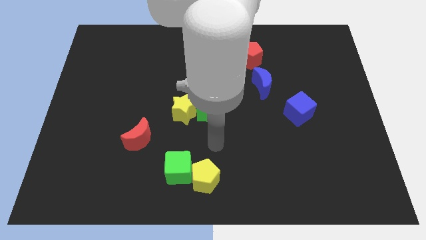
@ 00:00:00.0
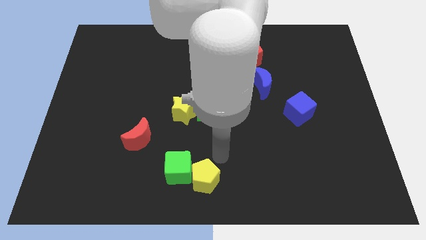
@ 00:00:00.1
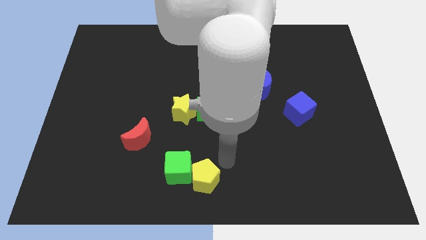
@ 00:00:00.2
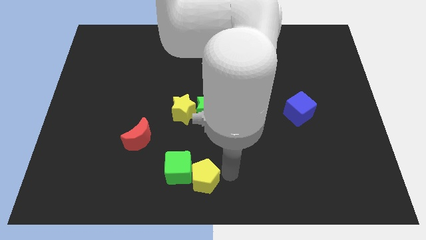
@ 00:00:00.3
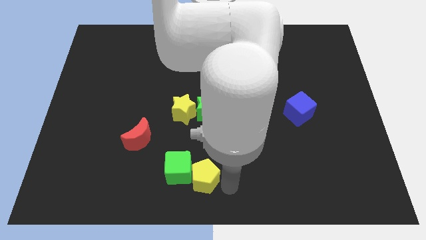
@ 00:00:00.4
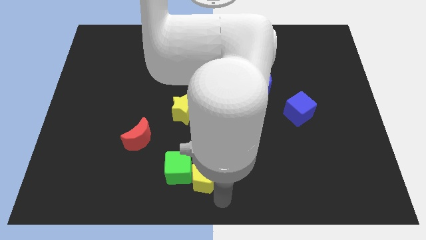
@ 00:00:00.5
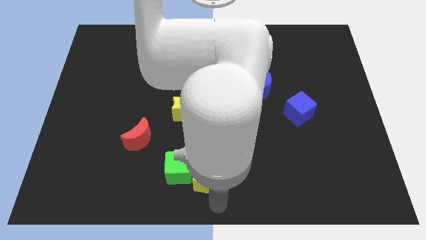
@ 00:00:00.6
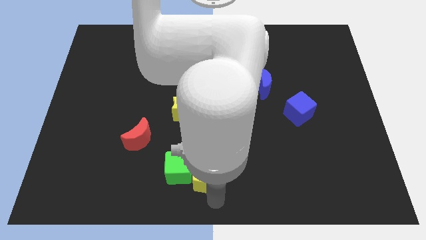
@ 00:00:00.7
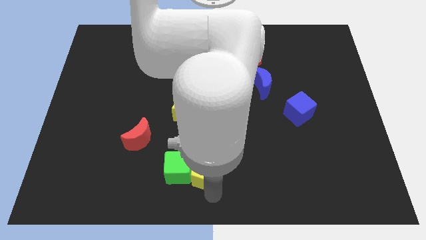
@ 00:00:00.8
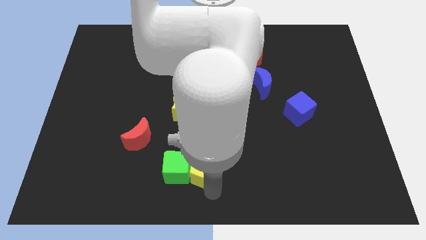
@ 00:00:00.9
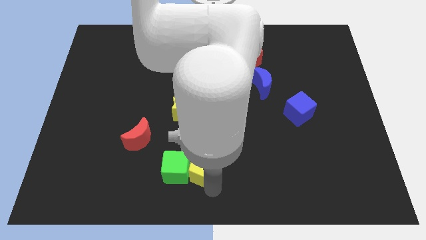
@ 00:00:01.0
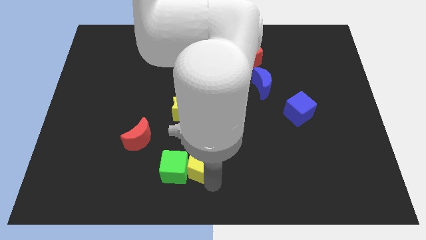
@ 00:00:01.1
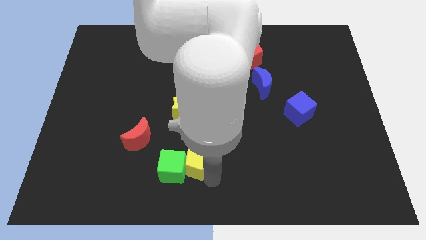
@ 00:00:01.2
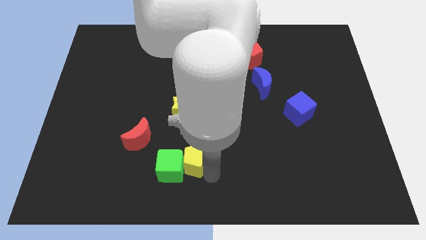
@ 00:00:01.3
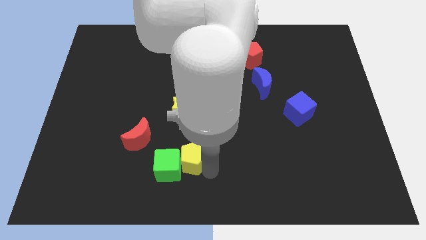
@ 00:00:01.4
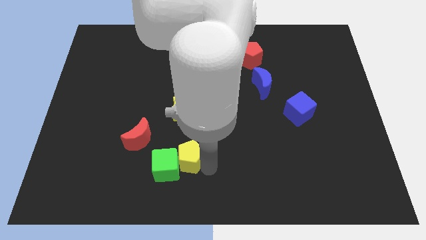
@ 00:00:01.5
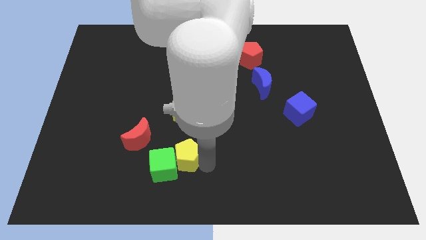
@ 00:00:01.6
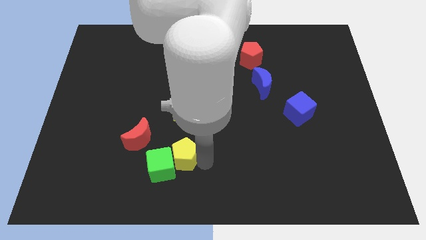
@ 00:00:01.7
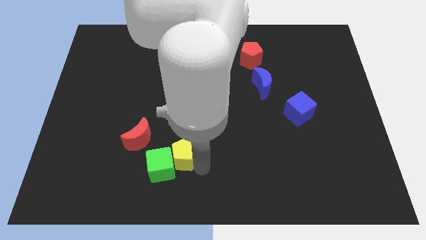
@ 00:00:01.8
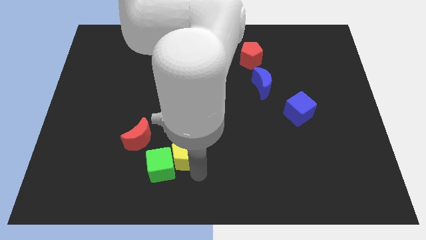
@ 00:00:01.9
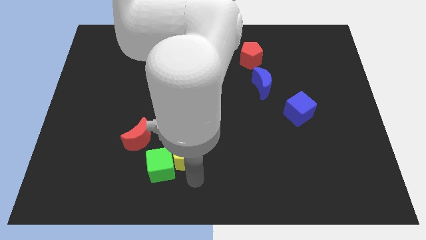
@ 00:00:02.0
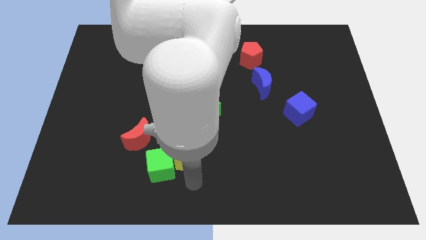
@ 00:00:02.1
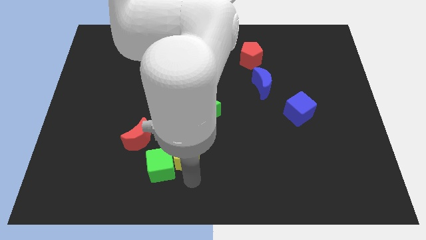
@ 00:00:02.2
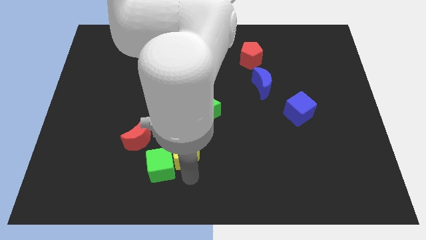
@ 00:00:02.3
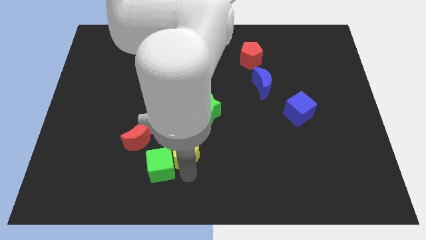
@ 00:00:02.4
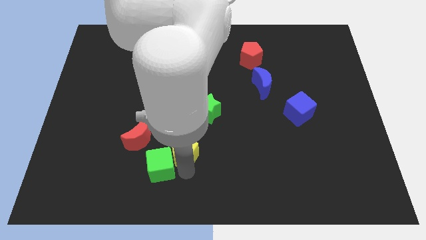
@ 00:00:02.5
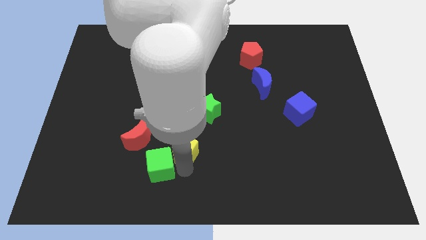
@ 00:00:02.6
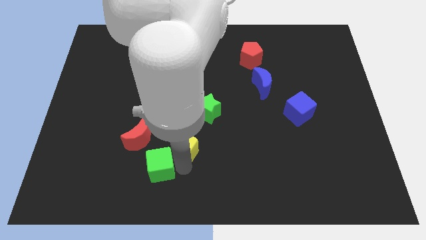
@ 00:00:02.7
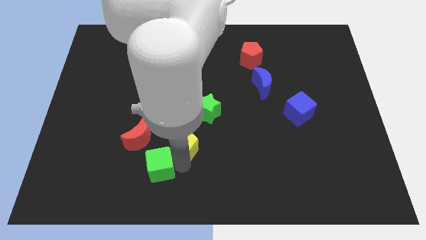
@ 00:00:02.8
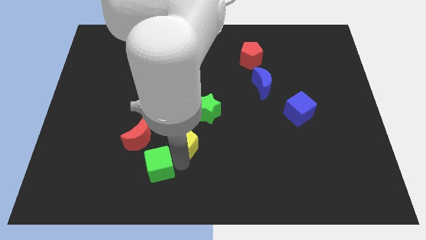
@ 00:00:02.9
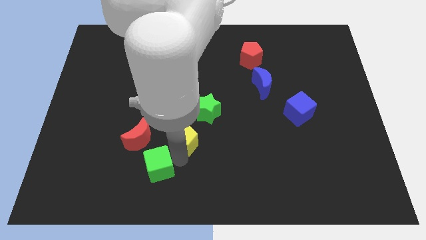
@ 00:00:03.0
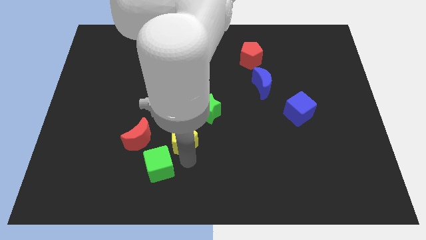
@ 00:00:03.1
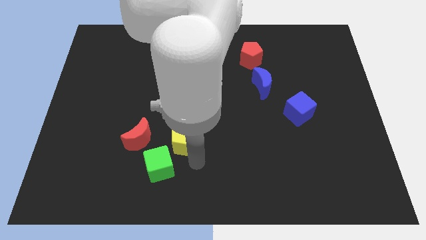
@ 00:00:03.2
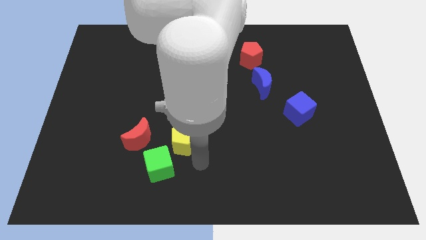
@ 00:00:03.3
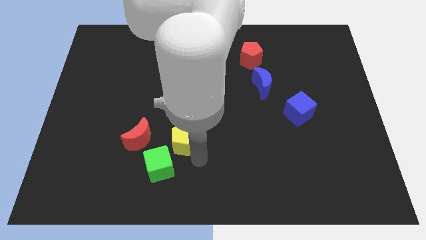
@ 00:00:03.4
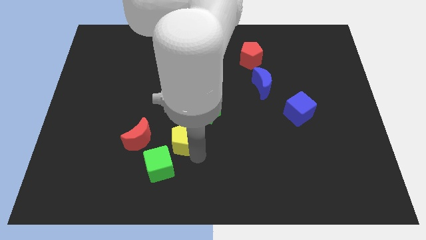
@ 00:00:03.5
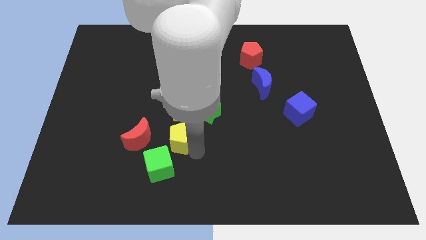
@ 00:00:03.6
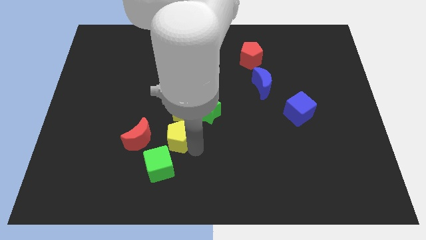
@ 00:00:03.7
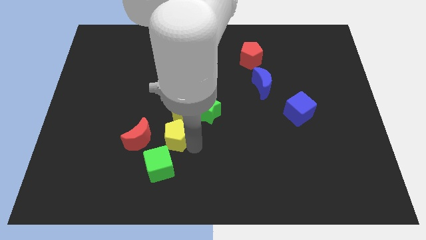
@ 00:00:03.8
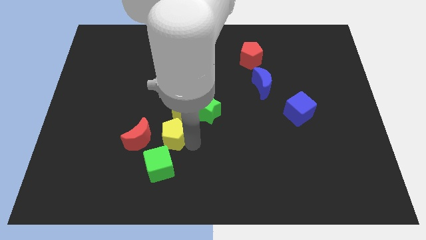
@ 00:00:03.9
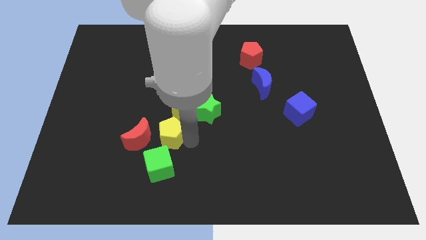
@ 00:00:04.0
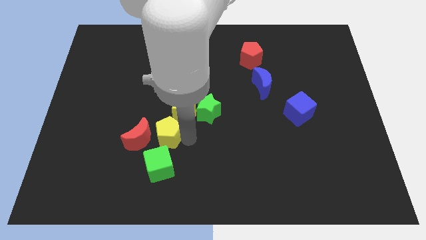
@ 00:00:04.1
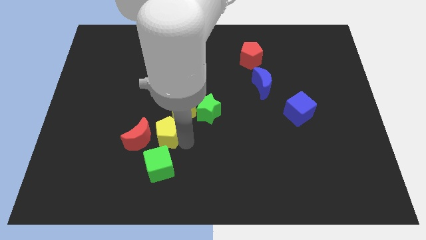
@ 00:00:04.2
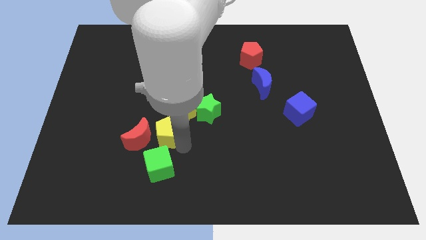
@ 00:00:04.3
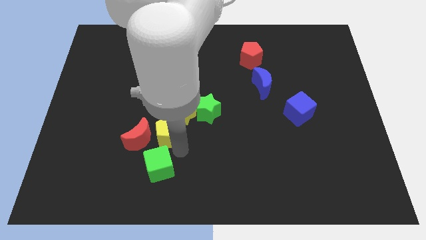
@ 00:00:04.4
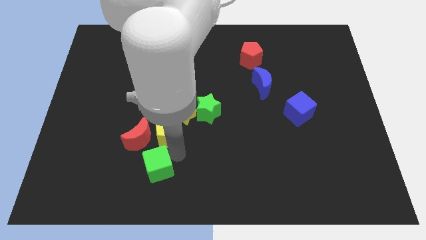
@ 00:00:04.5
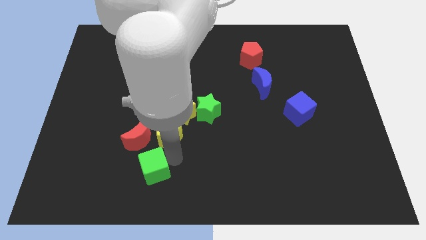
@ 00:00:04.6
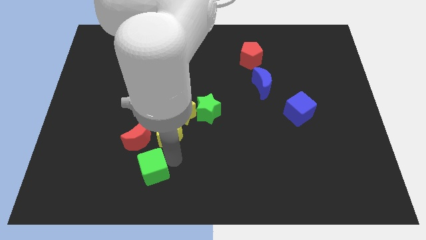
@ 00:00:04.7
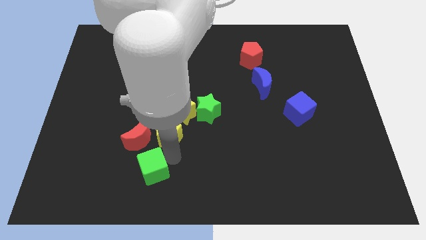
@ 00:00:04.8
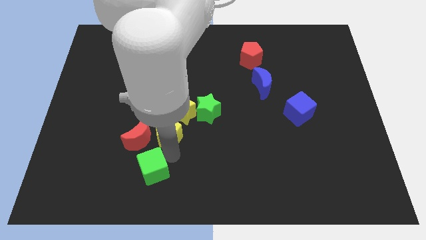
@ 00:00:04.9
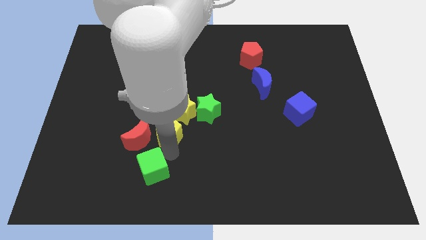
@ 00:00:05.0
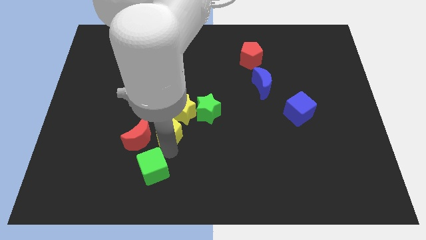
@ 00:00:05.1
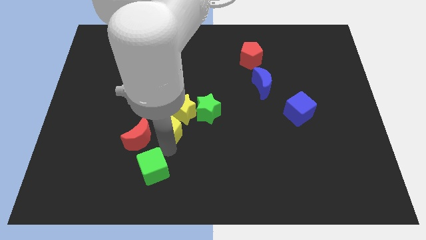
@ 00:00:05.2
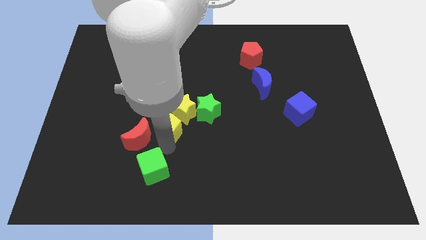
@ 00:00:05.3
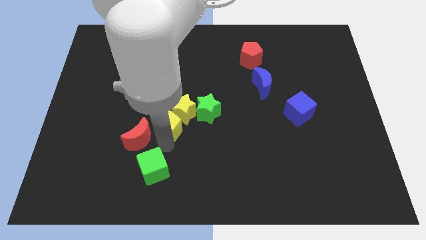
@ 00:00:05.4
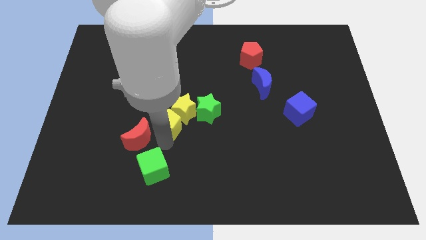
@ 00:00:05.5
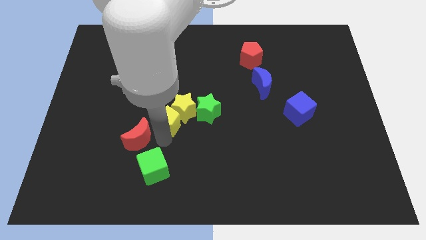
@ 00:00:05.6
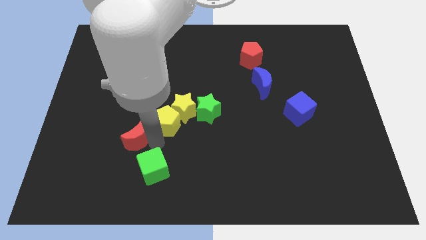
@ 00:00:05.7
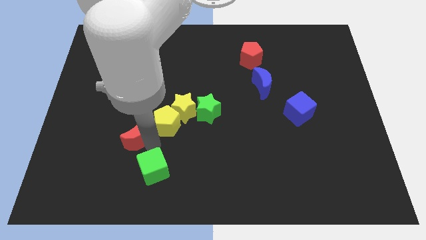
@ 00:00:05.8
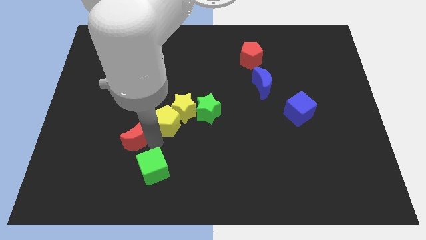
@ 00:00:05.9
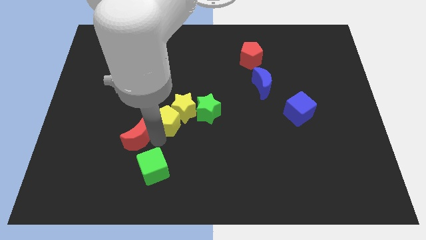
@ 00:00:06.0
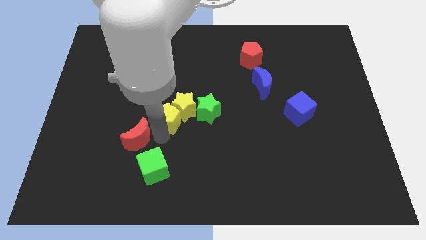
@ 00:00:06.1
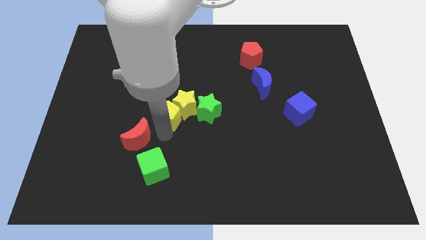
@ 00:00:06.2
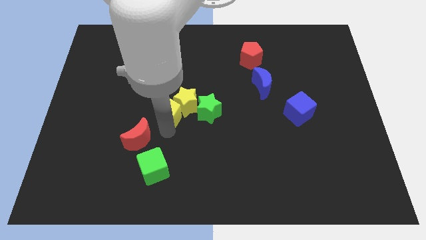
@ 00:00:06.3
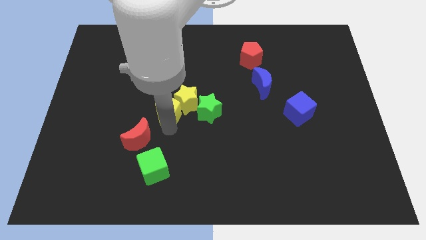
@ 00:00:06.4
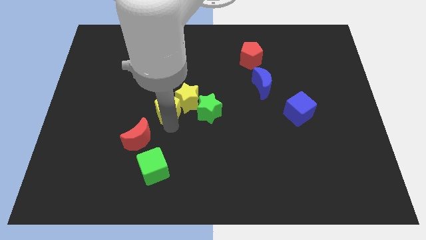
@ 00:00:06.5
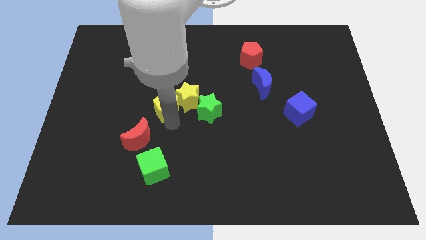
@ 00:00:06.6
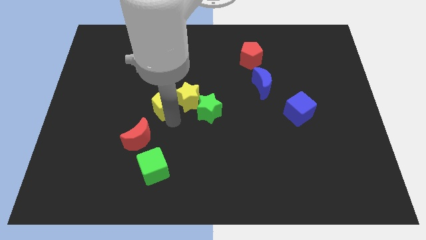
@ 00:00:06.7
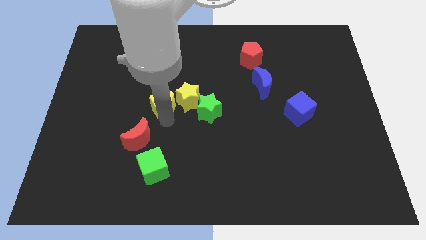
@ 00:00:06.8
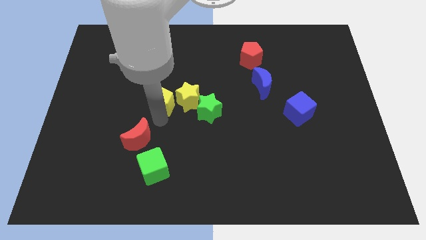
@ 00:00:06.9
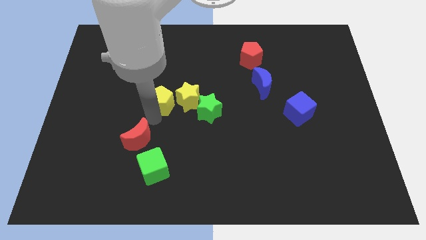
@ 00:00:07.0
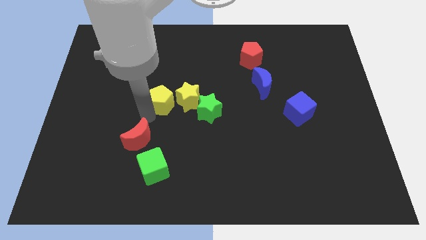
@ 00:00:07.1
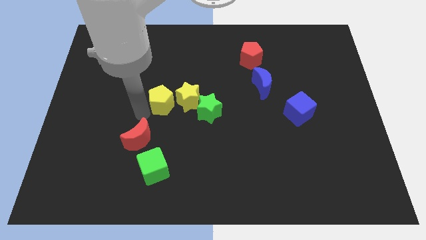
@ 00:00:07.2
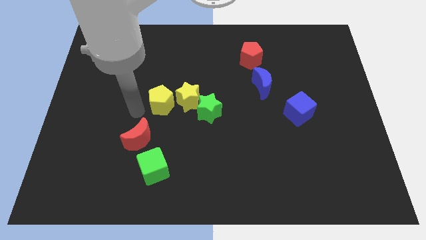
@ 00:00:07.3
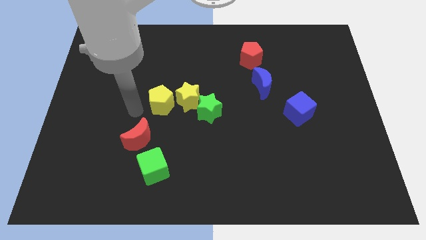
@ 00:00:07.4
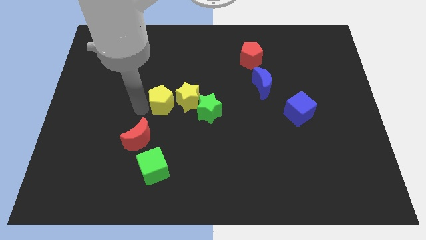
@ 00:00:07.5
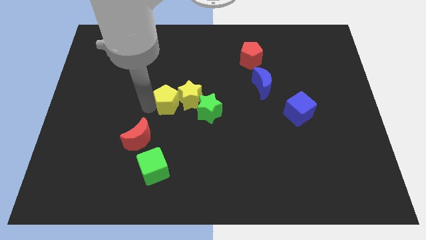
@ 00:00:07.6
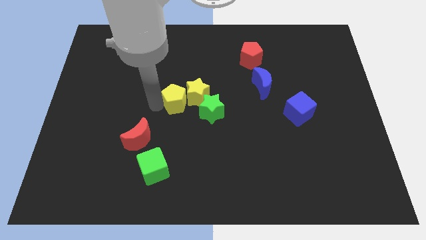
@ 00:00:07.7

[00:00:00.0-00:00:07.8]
slide the yellow pentagon to the top left of the green star

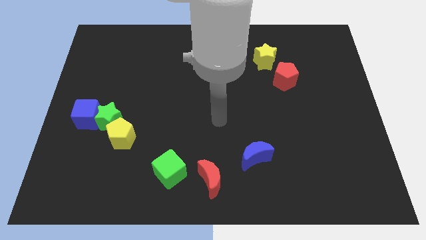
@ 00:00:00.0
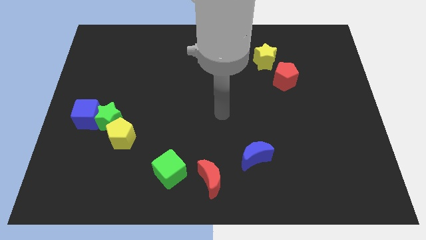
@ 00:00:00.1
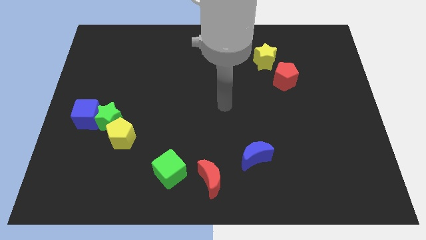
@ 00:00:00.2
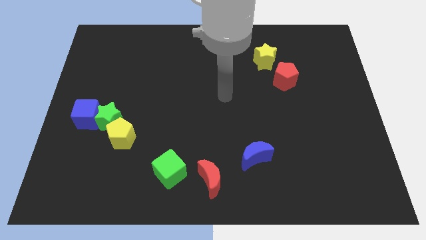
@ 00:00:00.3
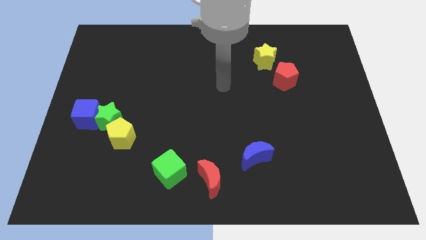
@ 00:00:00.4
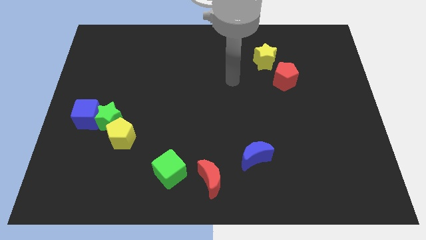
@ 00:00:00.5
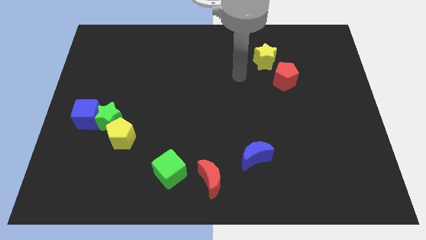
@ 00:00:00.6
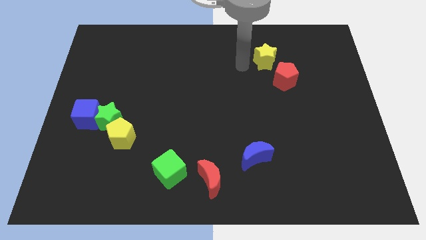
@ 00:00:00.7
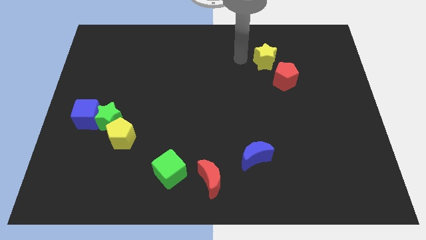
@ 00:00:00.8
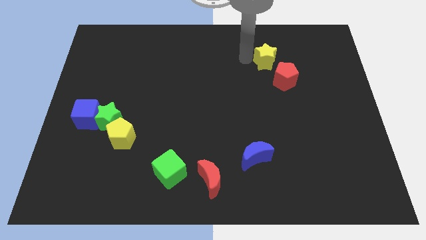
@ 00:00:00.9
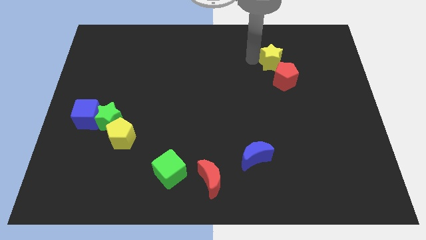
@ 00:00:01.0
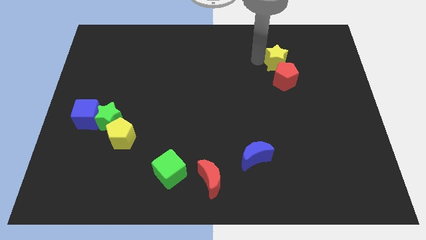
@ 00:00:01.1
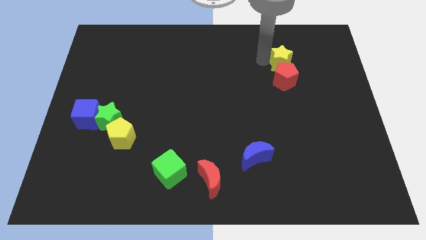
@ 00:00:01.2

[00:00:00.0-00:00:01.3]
move the yellow star to the top right of the red pentagon
